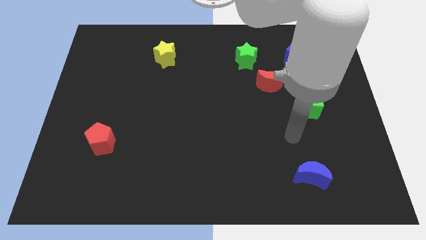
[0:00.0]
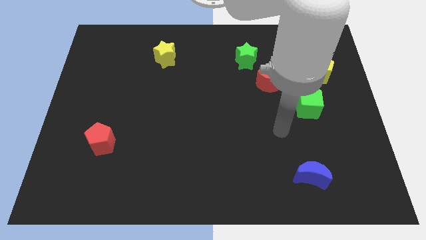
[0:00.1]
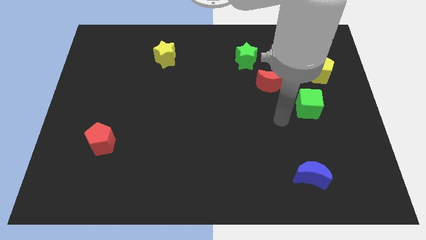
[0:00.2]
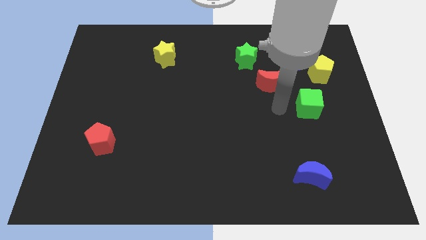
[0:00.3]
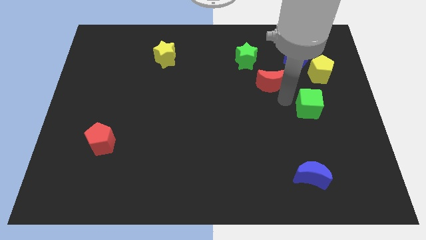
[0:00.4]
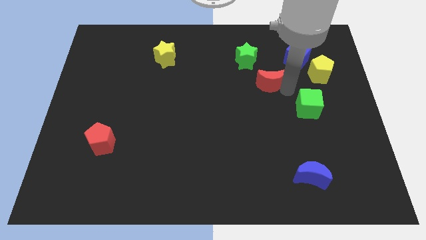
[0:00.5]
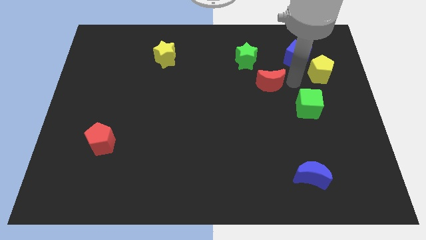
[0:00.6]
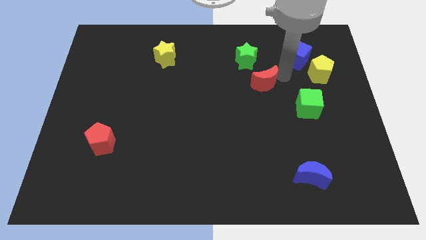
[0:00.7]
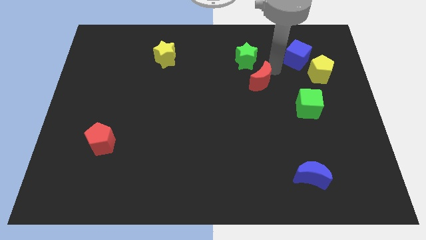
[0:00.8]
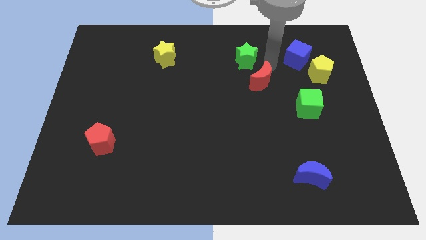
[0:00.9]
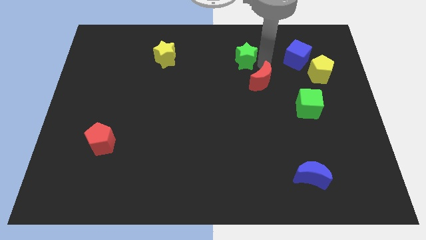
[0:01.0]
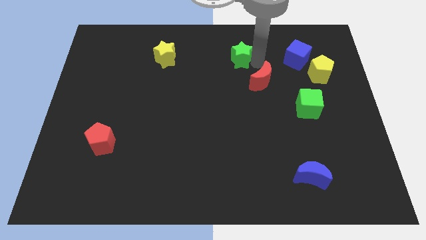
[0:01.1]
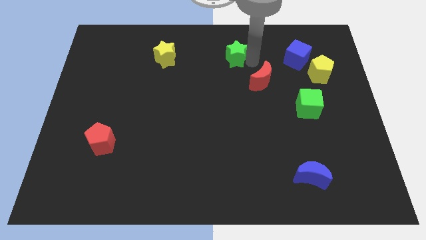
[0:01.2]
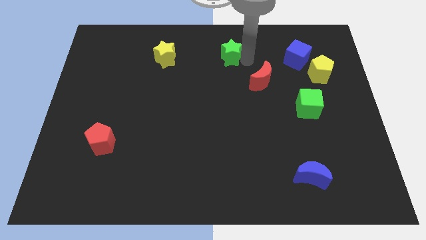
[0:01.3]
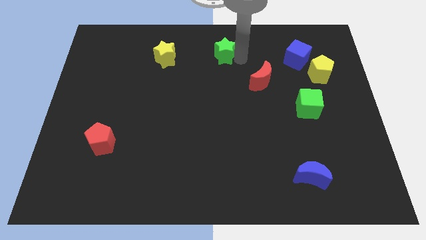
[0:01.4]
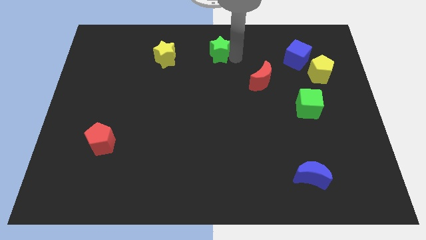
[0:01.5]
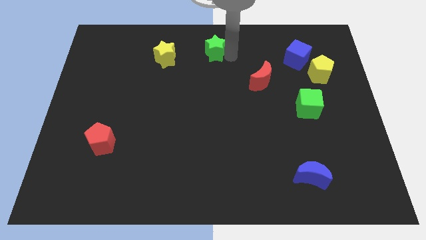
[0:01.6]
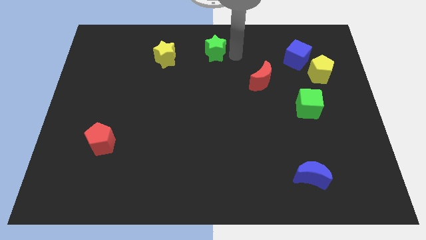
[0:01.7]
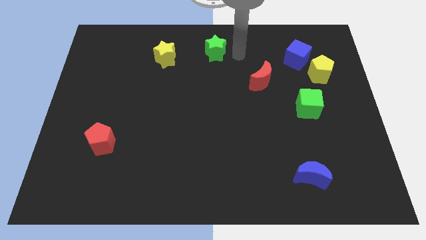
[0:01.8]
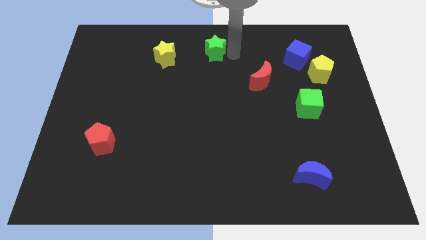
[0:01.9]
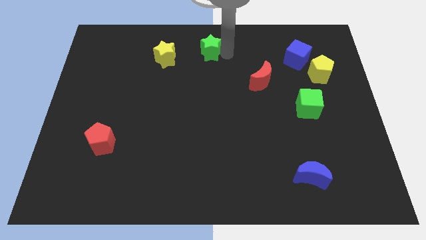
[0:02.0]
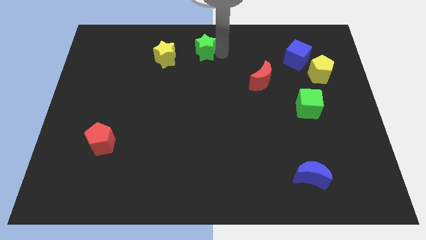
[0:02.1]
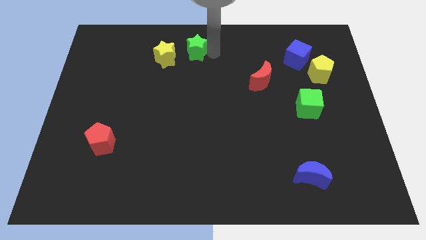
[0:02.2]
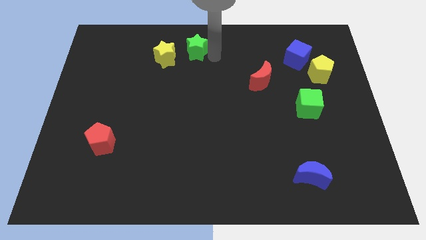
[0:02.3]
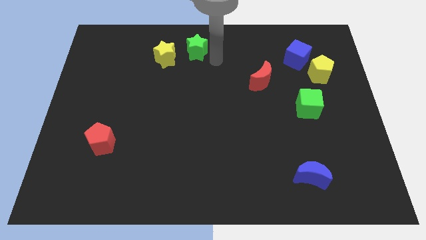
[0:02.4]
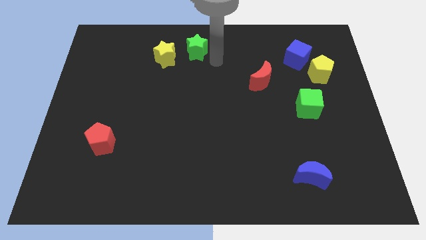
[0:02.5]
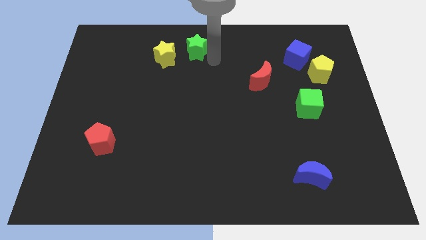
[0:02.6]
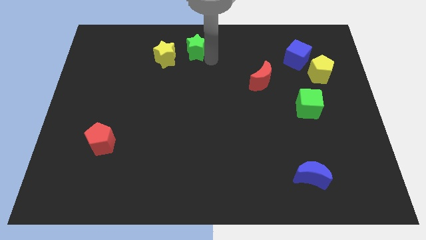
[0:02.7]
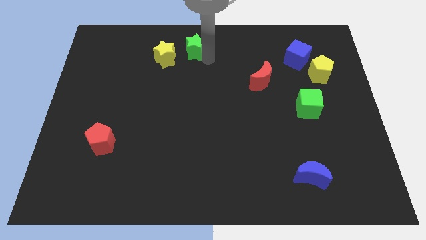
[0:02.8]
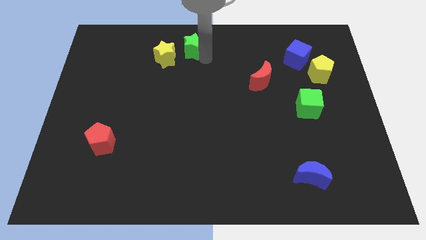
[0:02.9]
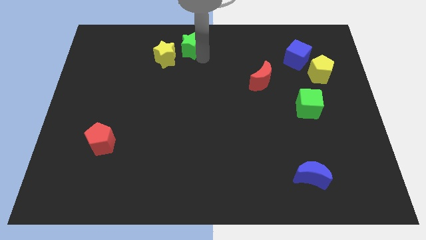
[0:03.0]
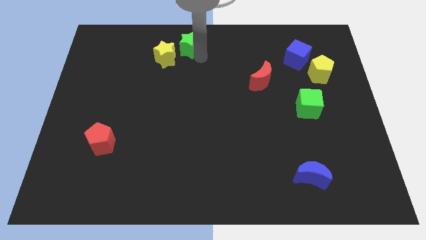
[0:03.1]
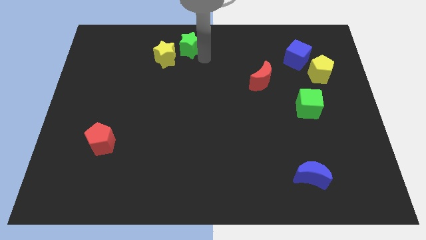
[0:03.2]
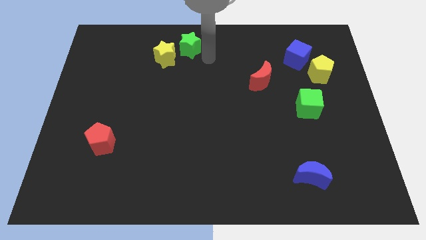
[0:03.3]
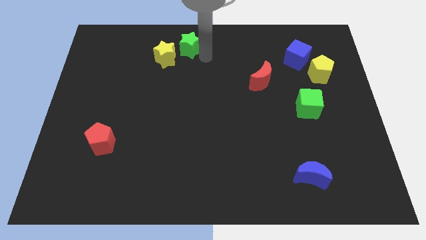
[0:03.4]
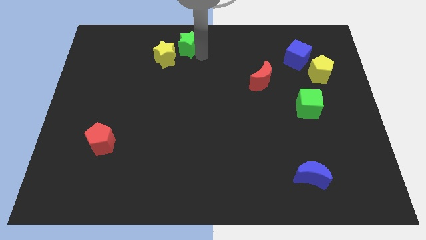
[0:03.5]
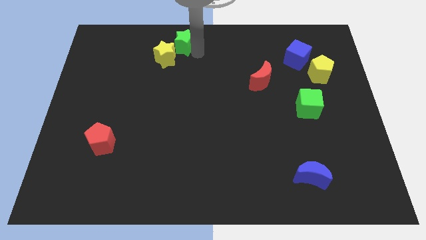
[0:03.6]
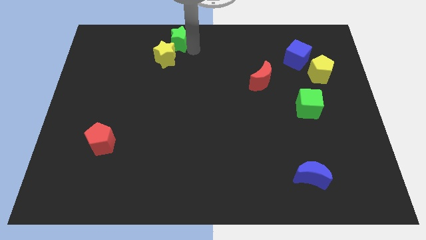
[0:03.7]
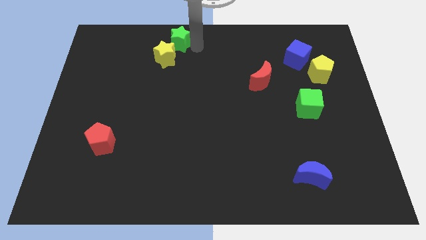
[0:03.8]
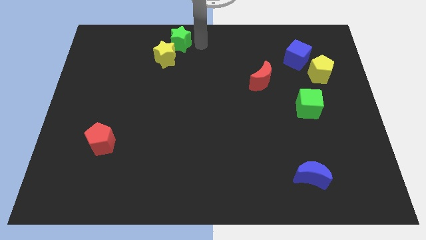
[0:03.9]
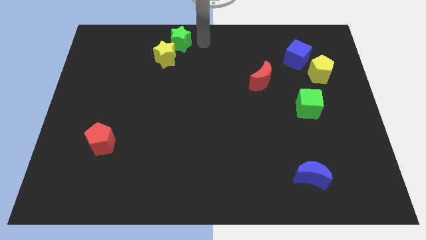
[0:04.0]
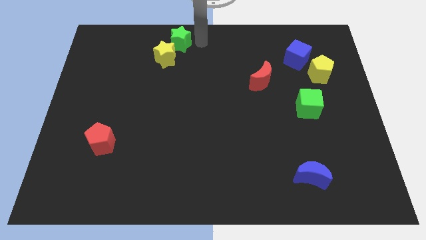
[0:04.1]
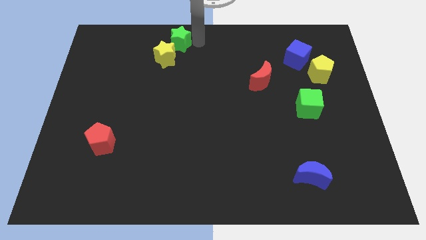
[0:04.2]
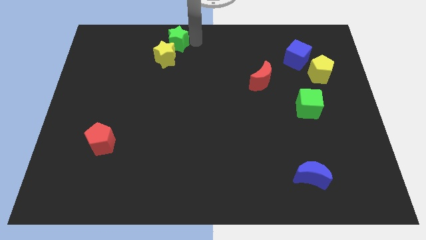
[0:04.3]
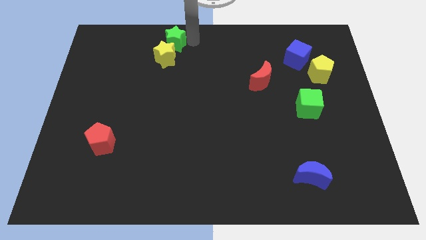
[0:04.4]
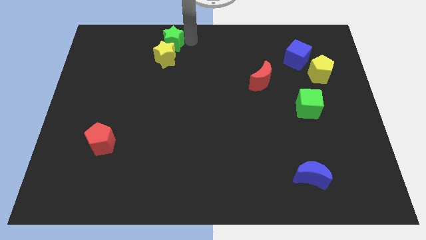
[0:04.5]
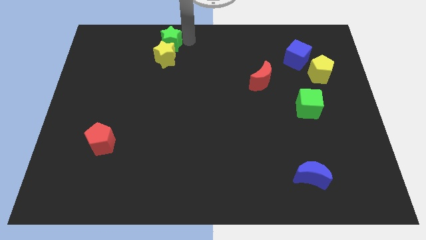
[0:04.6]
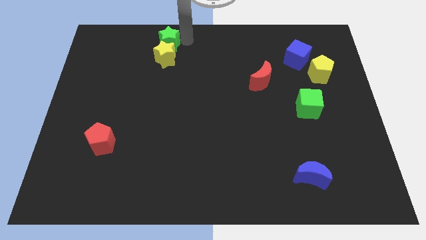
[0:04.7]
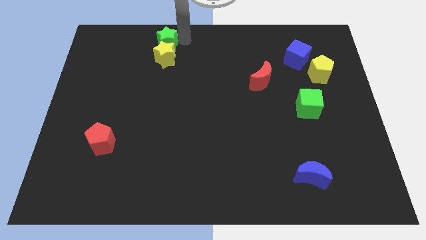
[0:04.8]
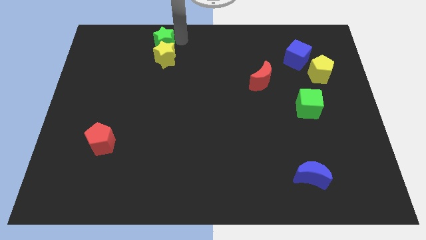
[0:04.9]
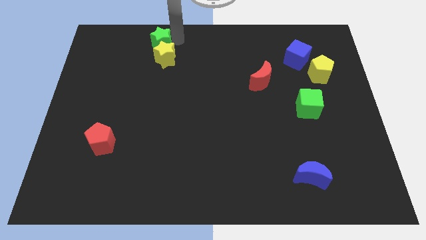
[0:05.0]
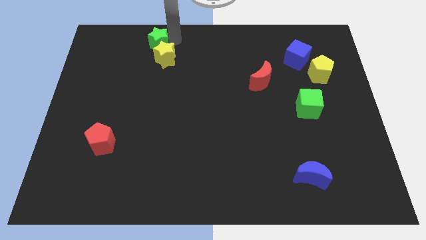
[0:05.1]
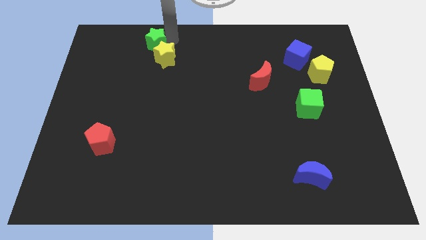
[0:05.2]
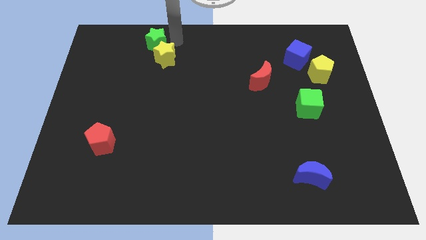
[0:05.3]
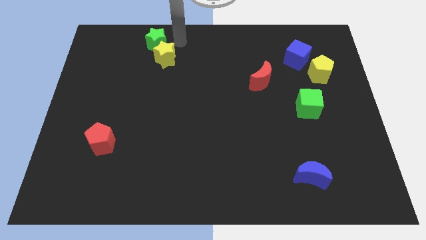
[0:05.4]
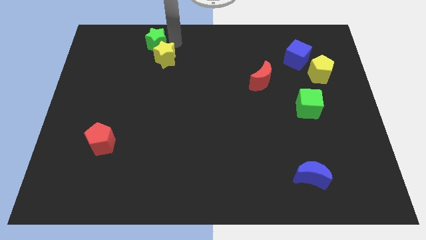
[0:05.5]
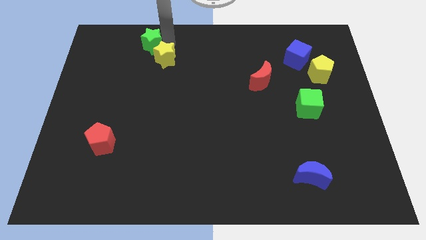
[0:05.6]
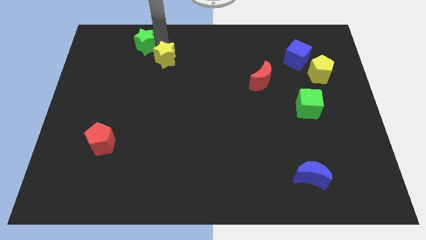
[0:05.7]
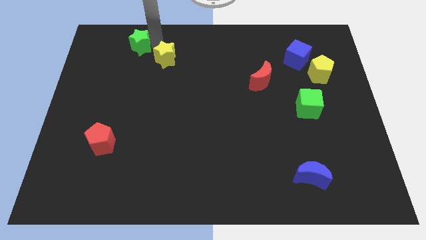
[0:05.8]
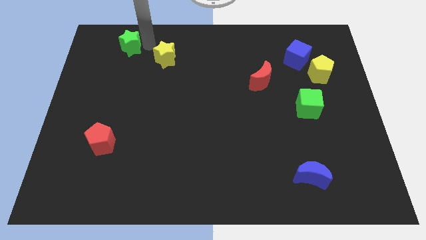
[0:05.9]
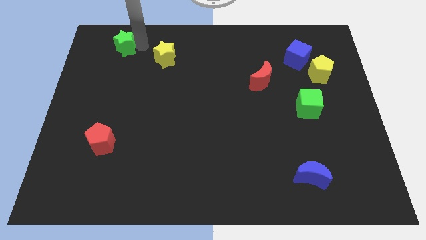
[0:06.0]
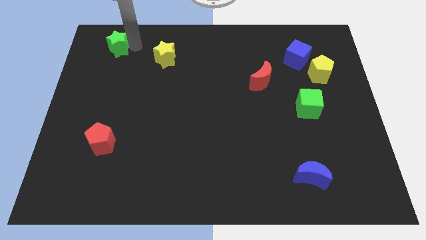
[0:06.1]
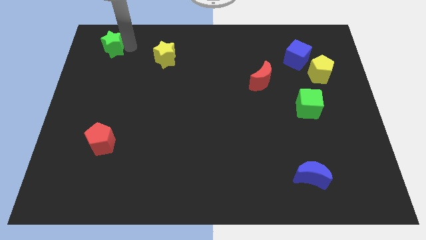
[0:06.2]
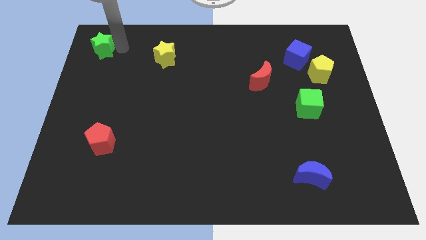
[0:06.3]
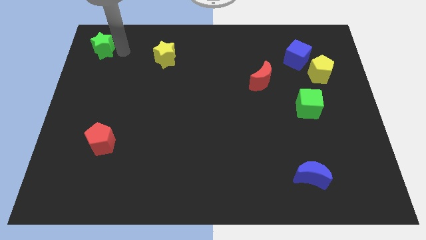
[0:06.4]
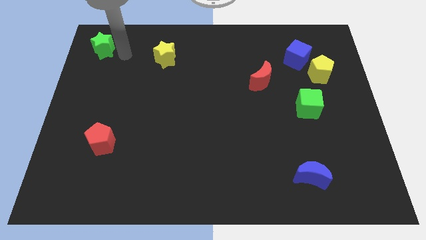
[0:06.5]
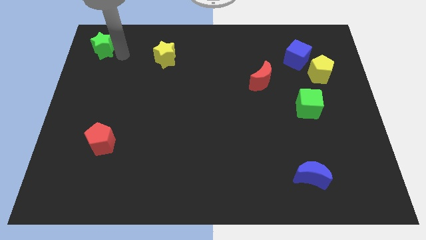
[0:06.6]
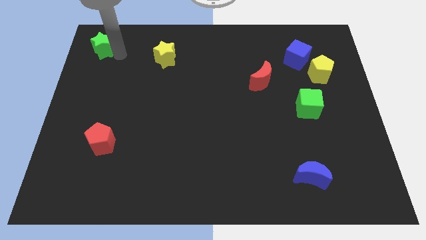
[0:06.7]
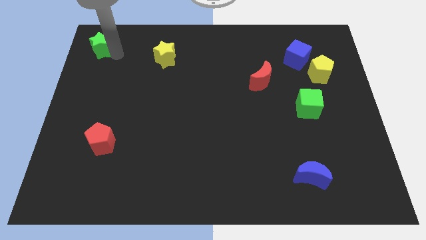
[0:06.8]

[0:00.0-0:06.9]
put the green star to the top left of the board
